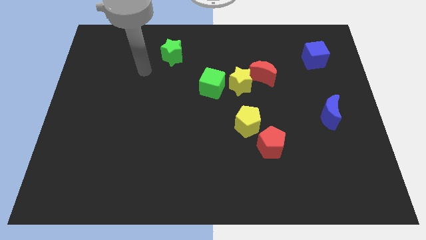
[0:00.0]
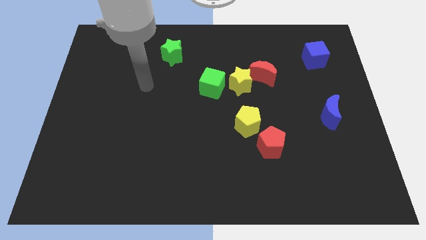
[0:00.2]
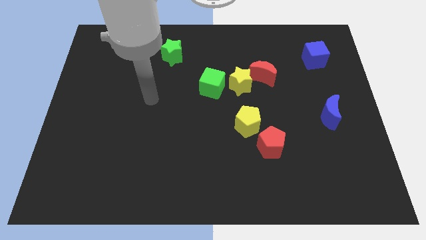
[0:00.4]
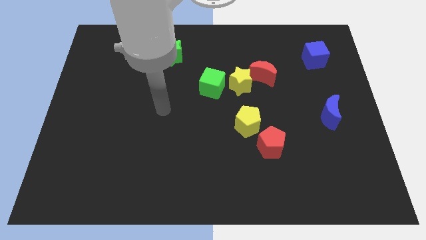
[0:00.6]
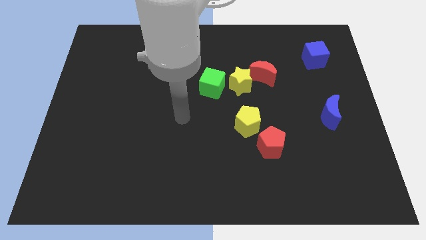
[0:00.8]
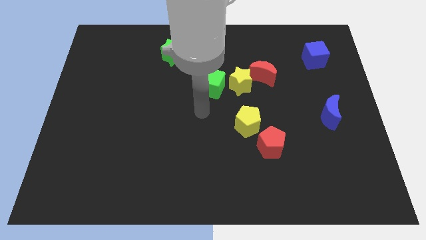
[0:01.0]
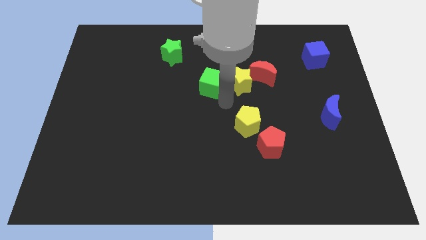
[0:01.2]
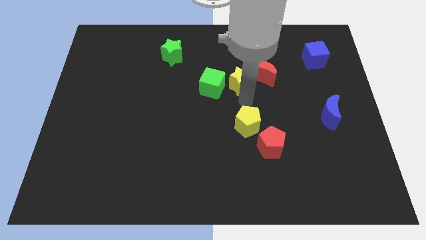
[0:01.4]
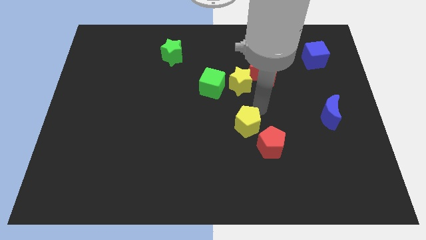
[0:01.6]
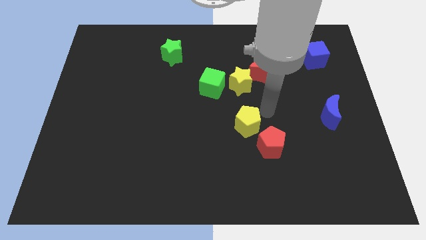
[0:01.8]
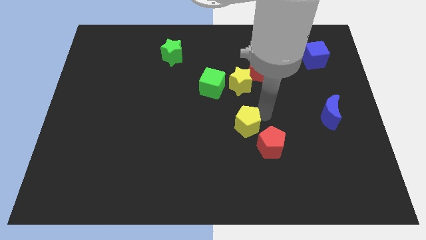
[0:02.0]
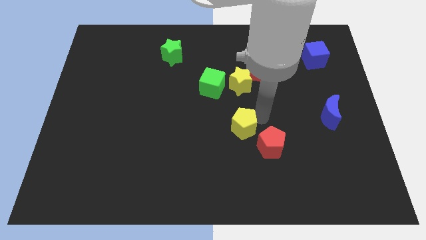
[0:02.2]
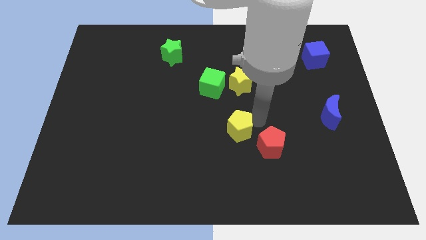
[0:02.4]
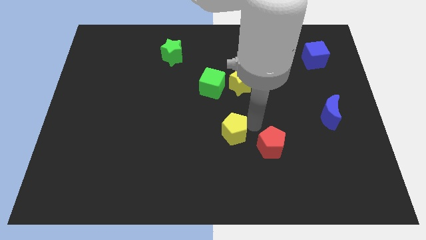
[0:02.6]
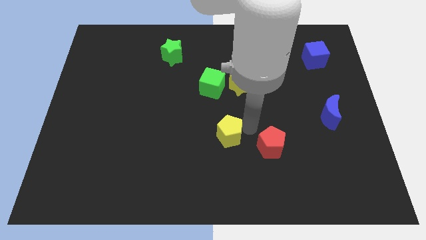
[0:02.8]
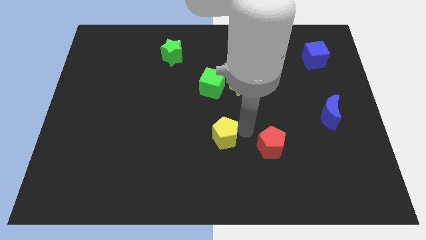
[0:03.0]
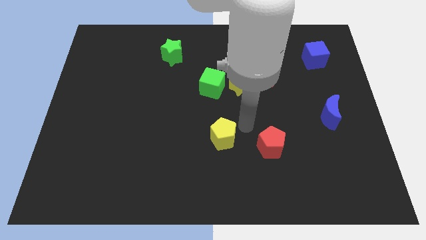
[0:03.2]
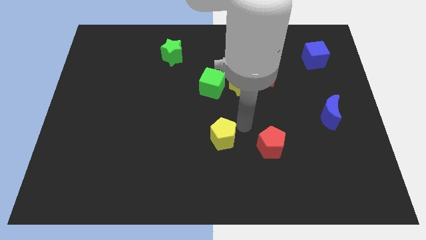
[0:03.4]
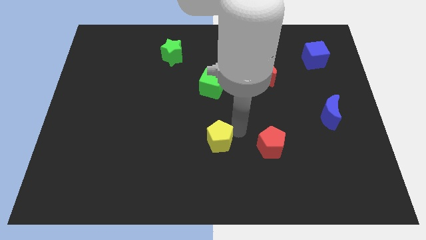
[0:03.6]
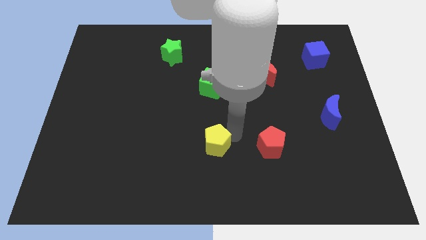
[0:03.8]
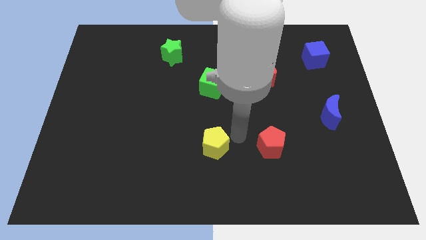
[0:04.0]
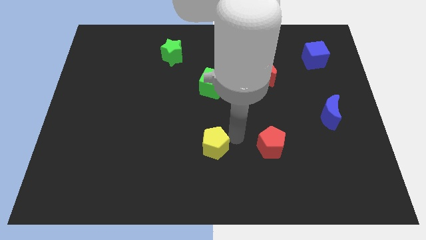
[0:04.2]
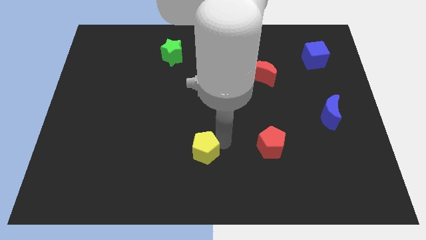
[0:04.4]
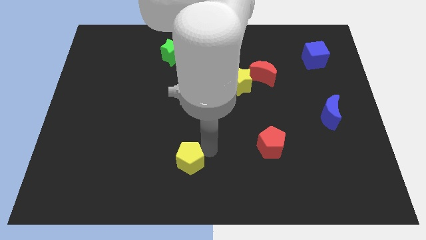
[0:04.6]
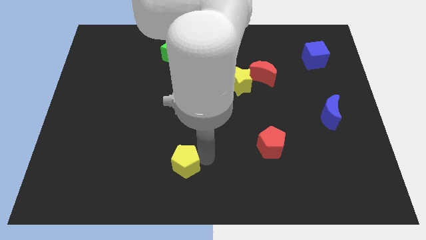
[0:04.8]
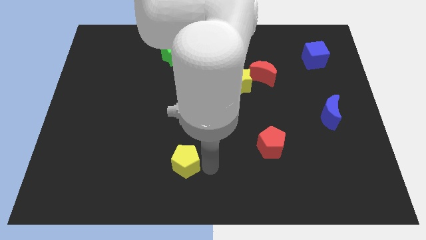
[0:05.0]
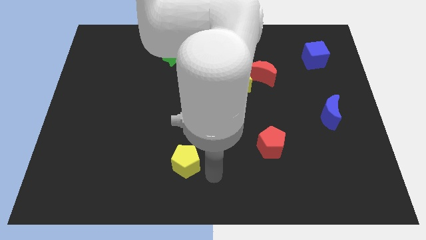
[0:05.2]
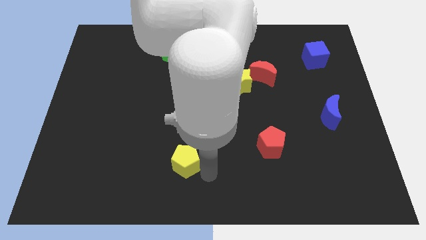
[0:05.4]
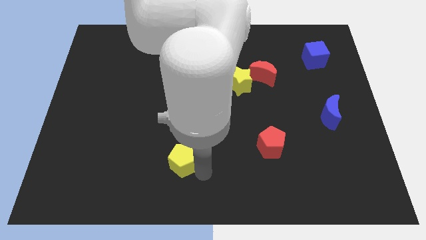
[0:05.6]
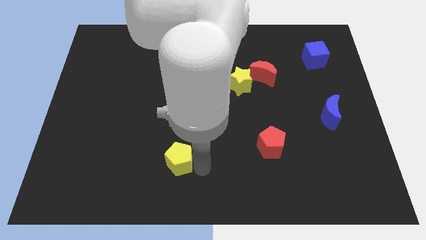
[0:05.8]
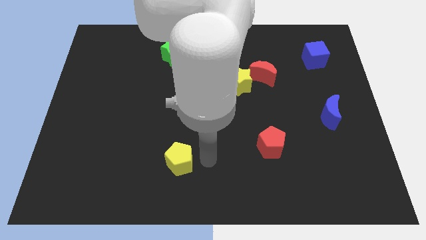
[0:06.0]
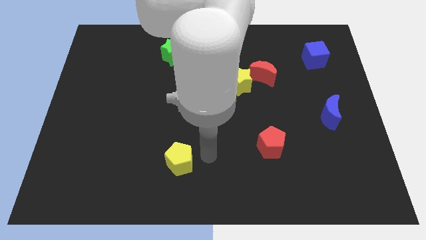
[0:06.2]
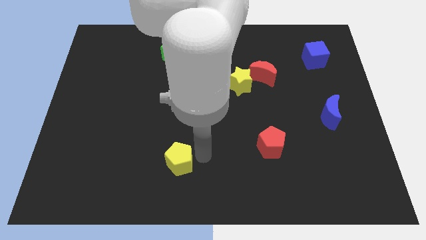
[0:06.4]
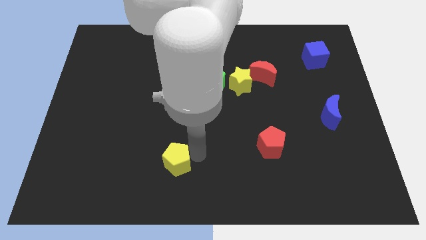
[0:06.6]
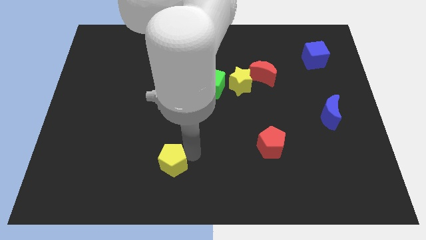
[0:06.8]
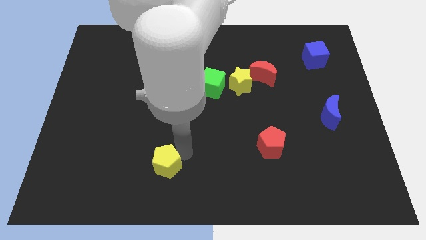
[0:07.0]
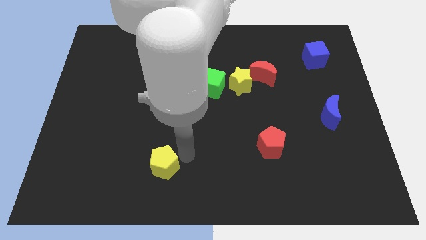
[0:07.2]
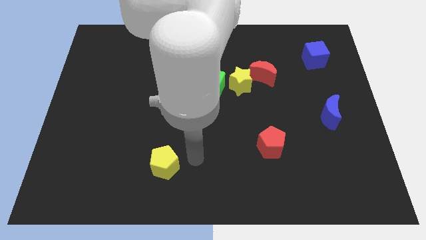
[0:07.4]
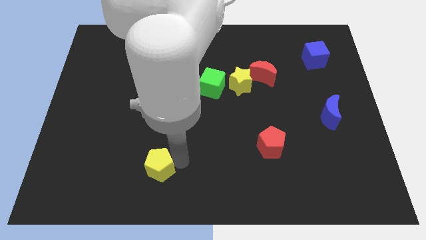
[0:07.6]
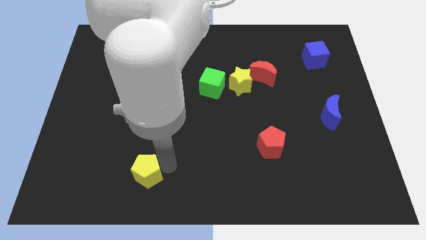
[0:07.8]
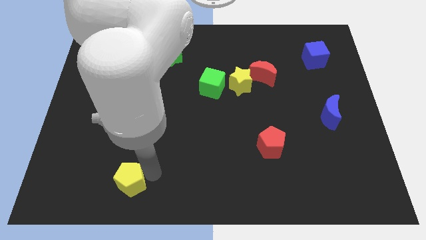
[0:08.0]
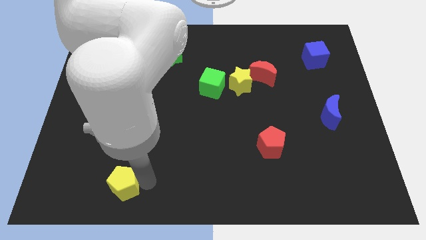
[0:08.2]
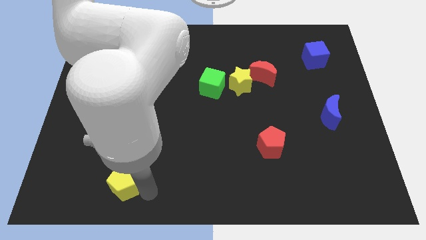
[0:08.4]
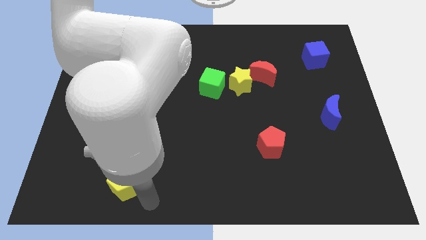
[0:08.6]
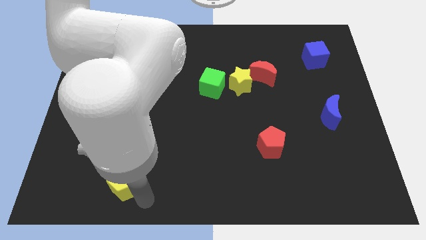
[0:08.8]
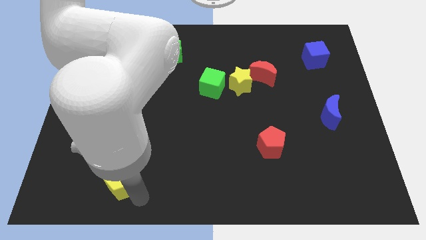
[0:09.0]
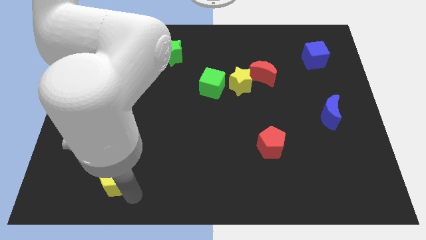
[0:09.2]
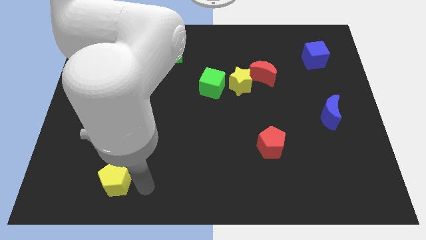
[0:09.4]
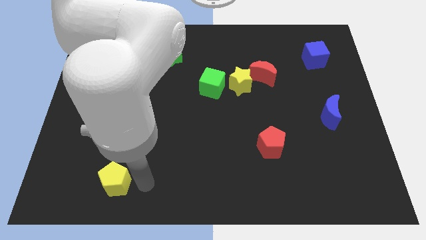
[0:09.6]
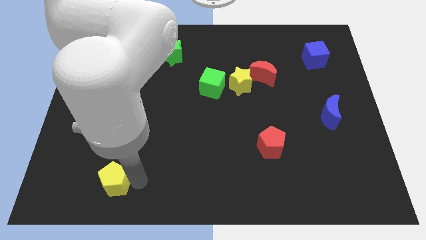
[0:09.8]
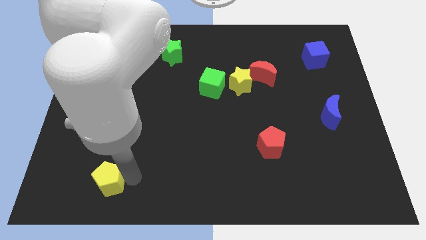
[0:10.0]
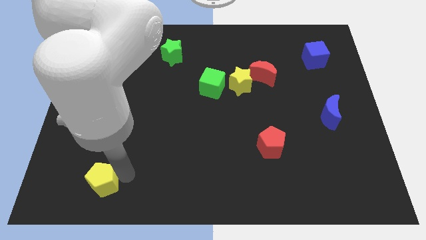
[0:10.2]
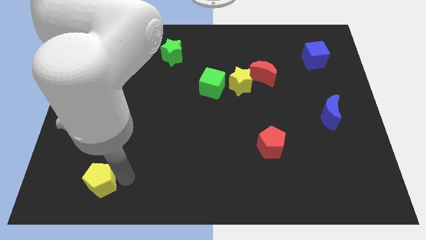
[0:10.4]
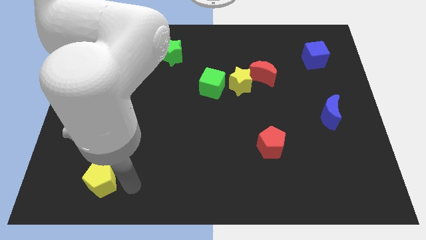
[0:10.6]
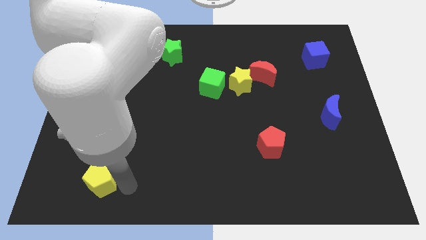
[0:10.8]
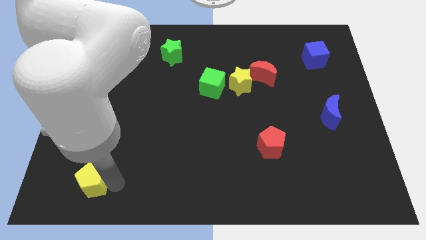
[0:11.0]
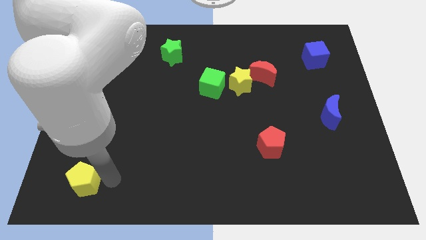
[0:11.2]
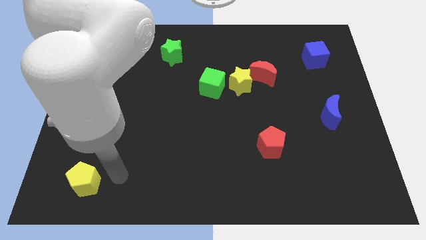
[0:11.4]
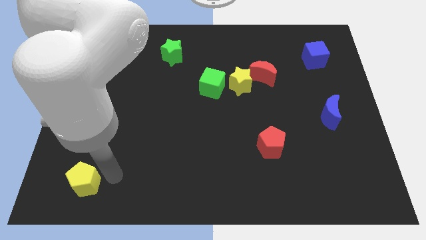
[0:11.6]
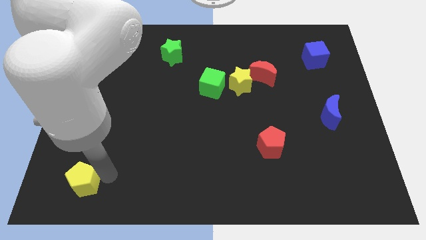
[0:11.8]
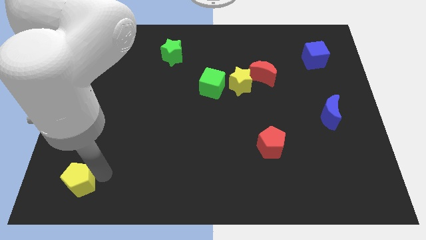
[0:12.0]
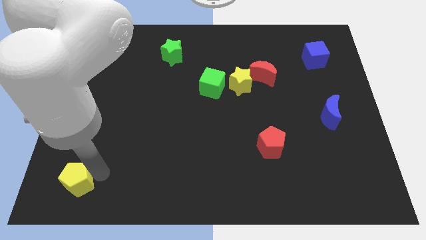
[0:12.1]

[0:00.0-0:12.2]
push the yellow pentagon to the lower left corner
